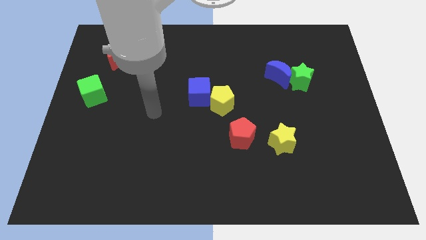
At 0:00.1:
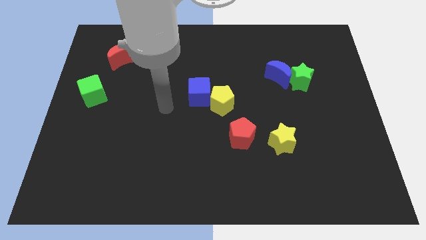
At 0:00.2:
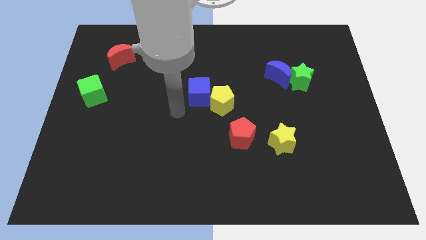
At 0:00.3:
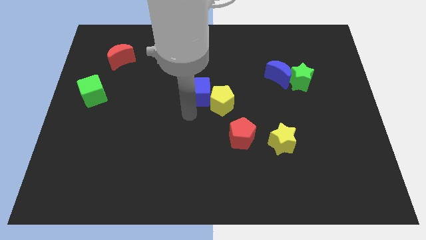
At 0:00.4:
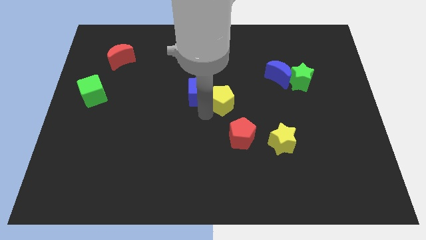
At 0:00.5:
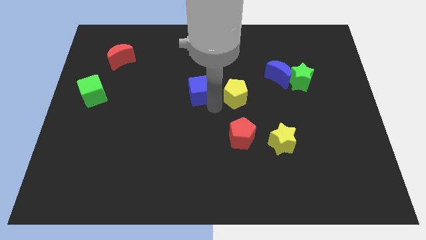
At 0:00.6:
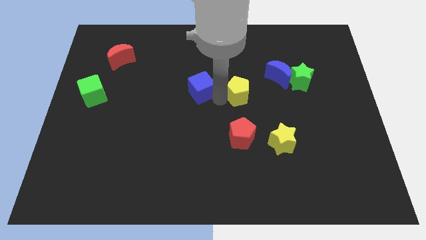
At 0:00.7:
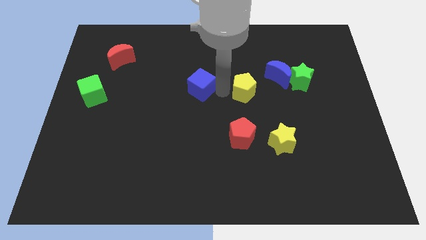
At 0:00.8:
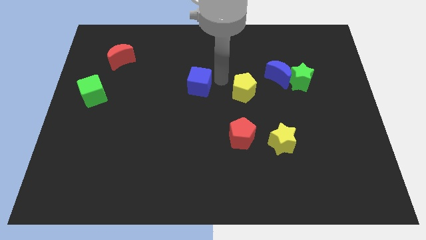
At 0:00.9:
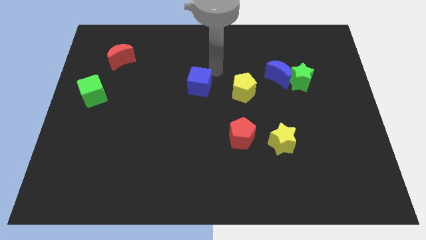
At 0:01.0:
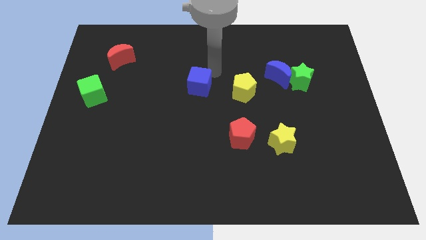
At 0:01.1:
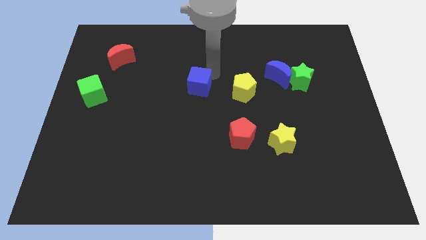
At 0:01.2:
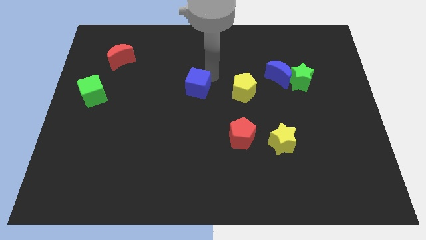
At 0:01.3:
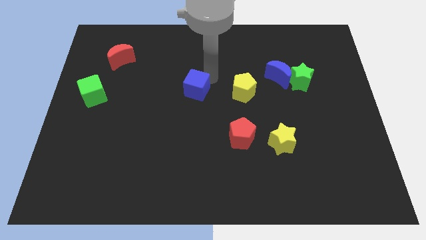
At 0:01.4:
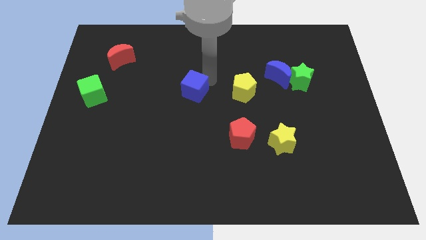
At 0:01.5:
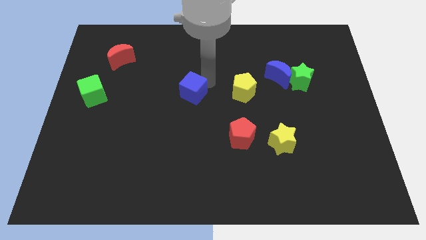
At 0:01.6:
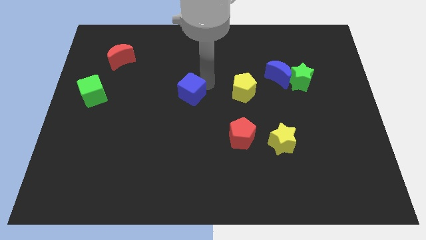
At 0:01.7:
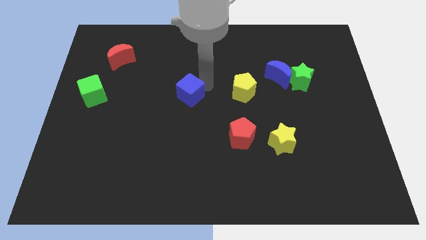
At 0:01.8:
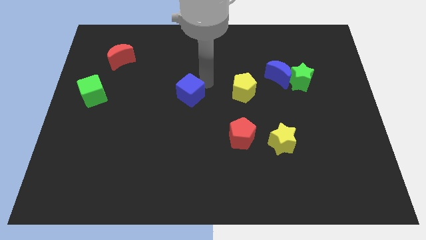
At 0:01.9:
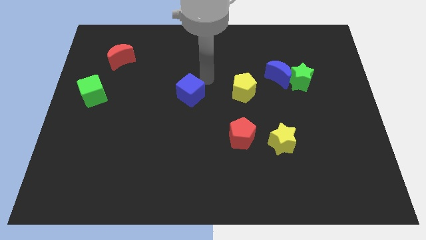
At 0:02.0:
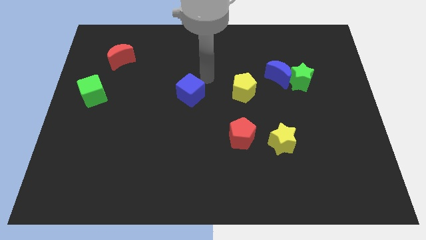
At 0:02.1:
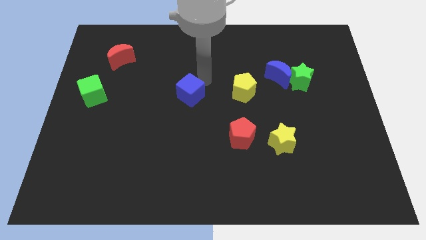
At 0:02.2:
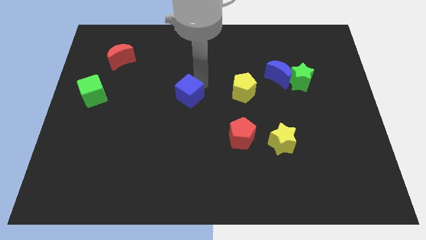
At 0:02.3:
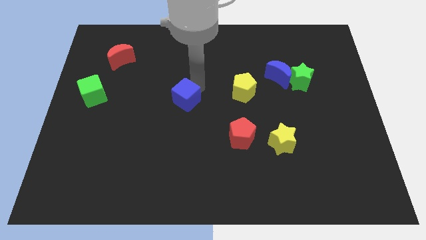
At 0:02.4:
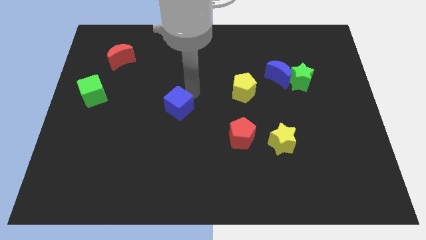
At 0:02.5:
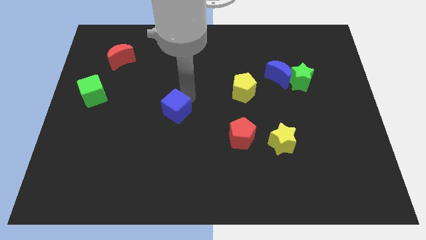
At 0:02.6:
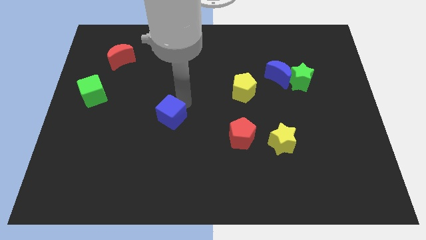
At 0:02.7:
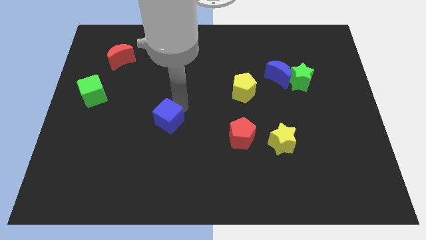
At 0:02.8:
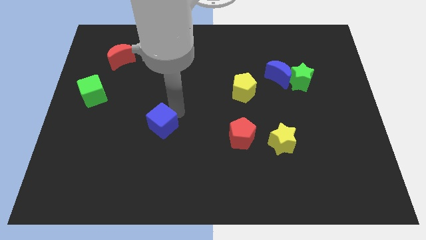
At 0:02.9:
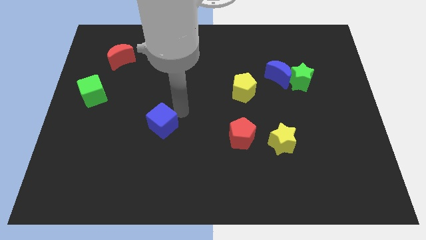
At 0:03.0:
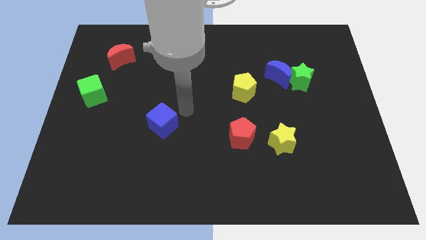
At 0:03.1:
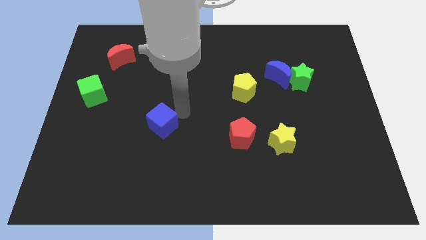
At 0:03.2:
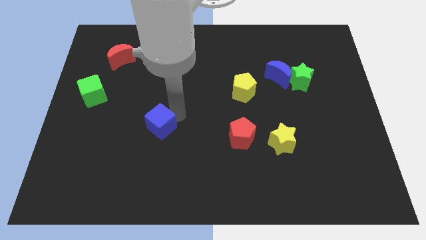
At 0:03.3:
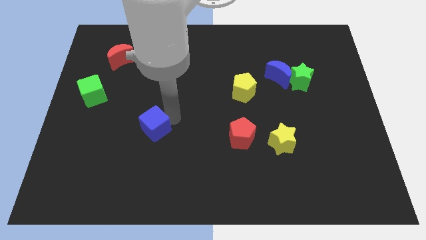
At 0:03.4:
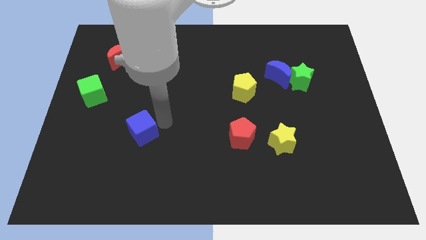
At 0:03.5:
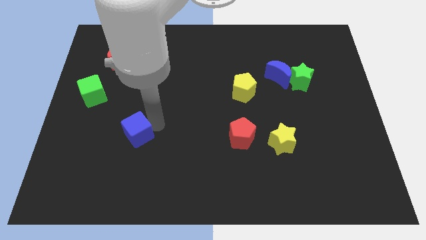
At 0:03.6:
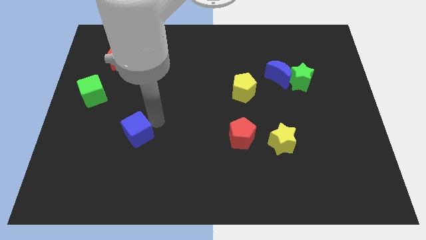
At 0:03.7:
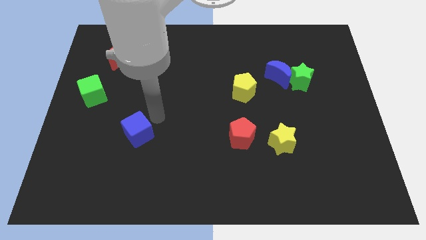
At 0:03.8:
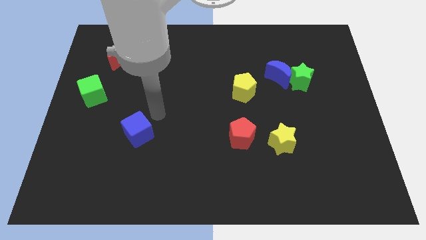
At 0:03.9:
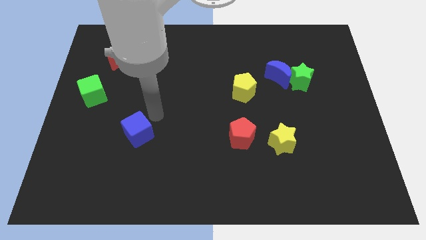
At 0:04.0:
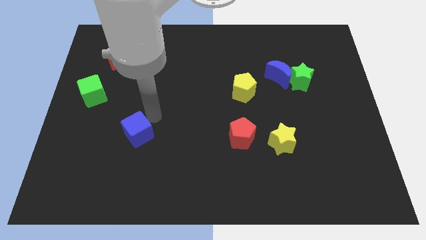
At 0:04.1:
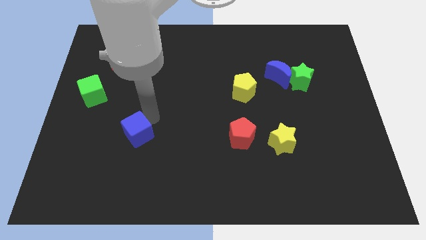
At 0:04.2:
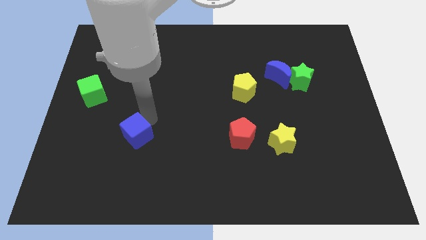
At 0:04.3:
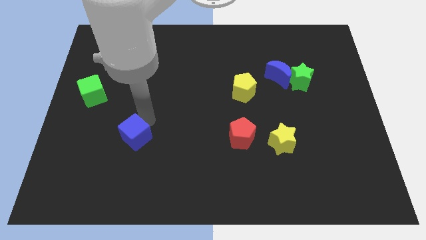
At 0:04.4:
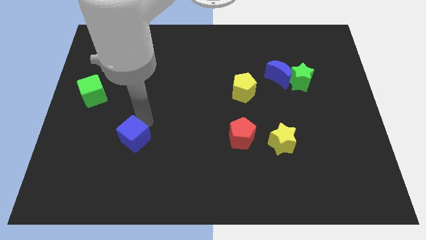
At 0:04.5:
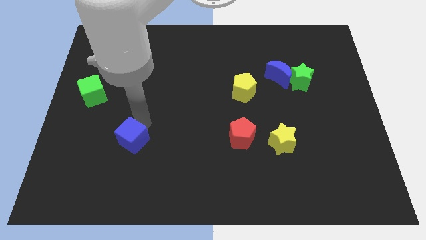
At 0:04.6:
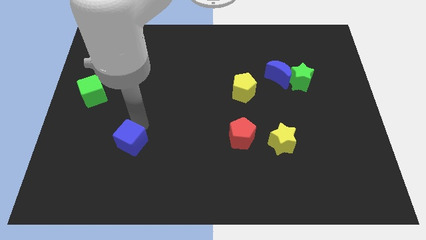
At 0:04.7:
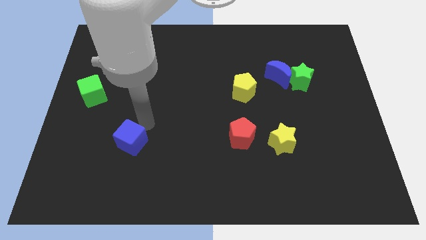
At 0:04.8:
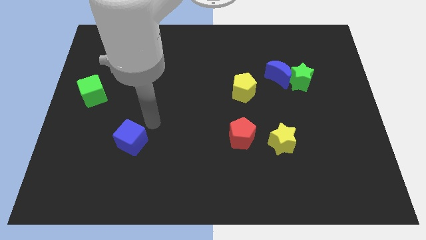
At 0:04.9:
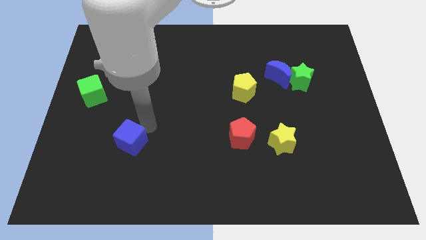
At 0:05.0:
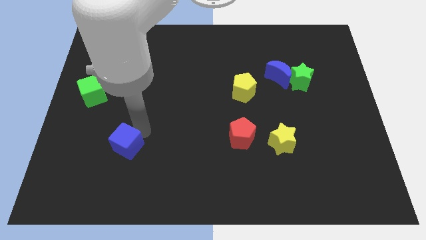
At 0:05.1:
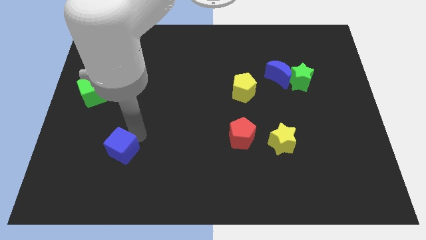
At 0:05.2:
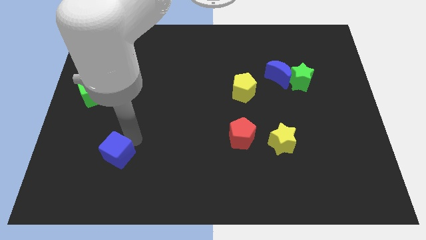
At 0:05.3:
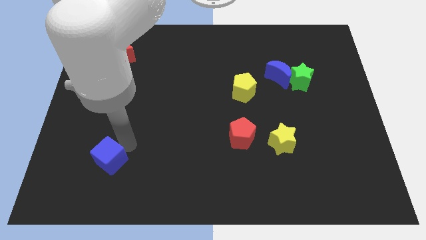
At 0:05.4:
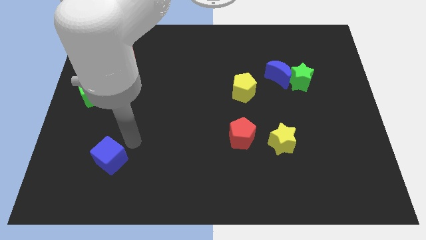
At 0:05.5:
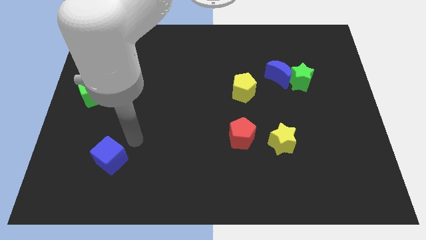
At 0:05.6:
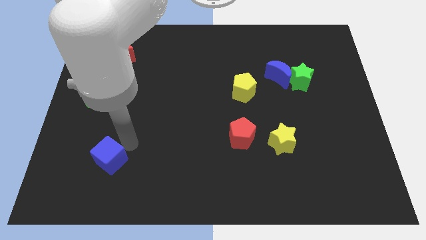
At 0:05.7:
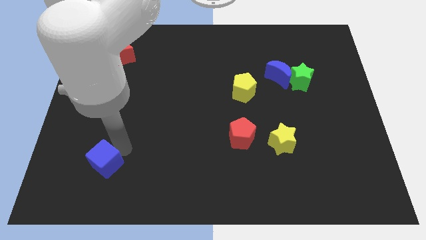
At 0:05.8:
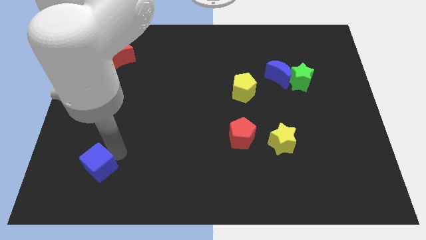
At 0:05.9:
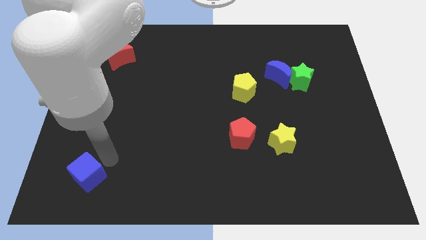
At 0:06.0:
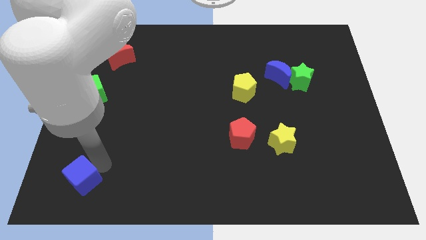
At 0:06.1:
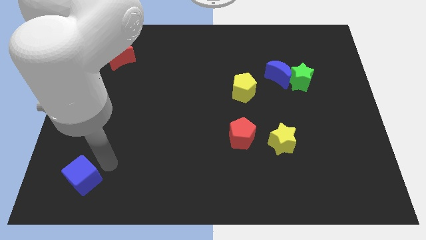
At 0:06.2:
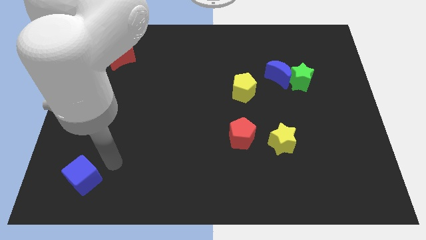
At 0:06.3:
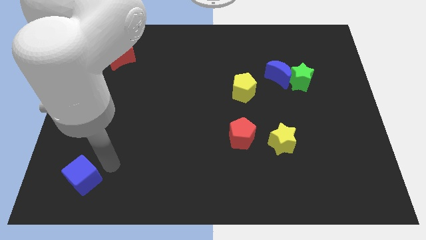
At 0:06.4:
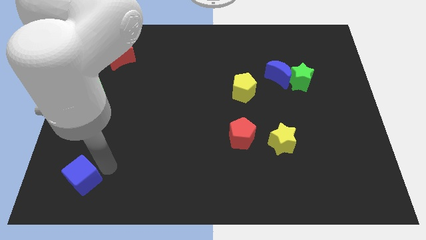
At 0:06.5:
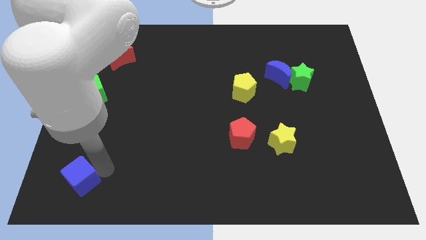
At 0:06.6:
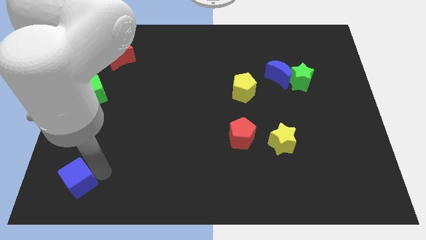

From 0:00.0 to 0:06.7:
put the blue cube to the bottom left of the board

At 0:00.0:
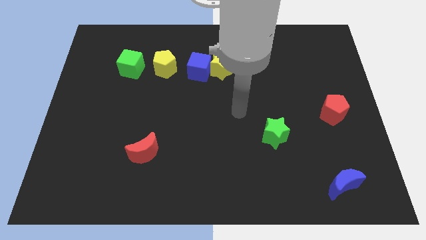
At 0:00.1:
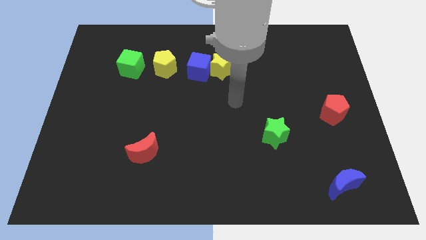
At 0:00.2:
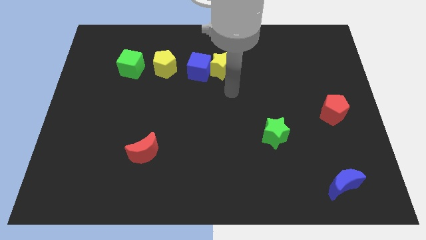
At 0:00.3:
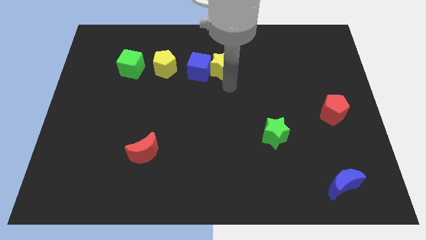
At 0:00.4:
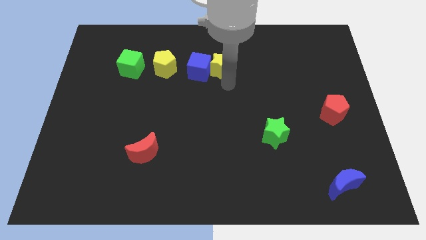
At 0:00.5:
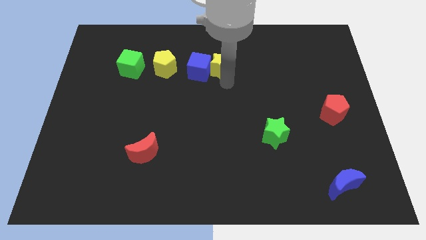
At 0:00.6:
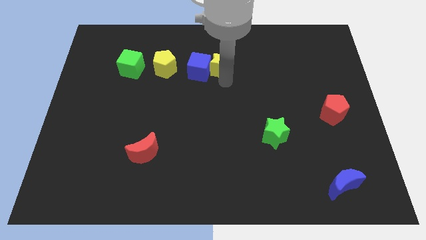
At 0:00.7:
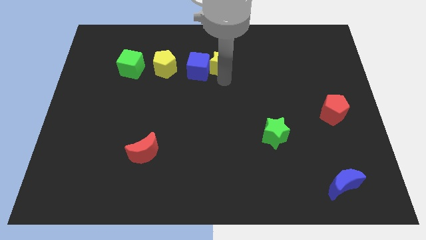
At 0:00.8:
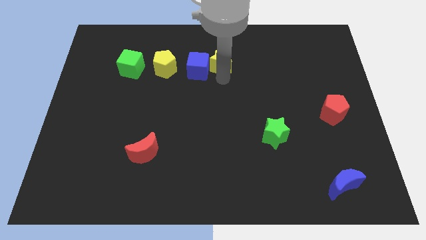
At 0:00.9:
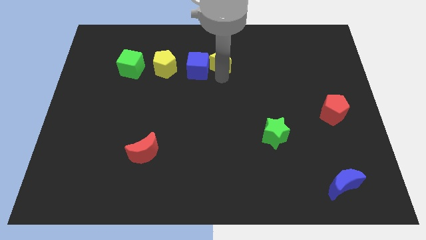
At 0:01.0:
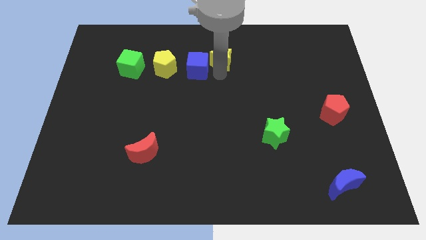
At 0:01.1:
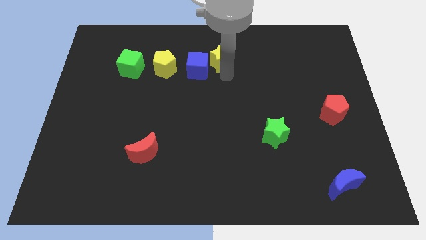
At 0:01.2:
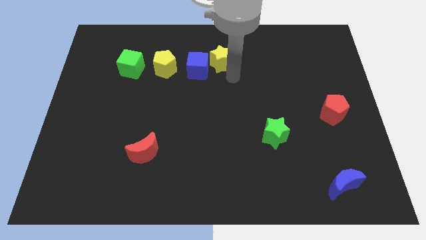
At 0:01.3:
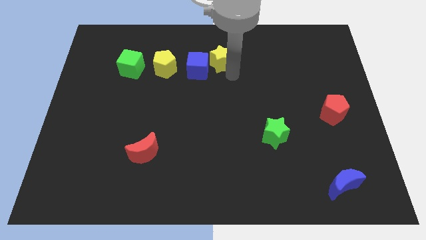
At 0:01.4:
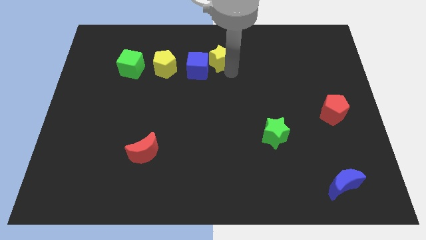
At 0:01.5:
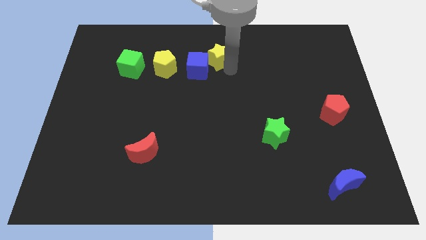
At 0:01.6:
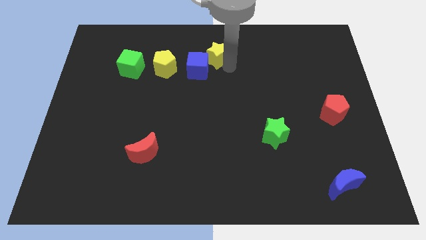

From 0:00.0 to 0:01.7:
put the yellow star to the towards your base
